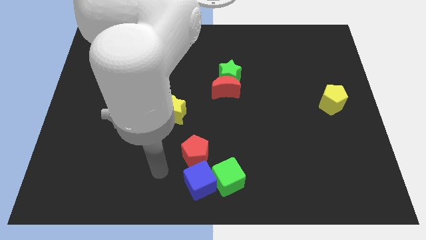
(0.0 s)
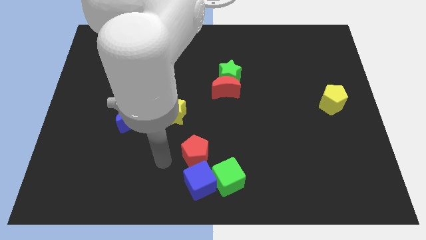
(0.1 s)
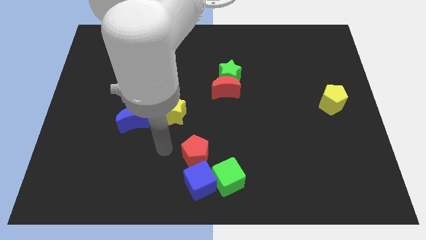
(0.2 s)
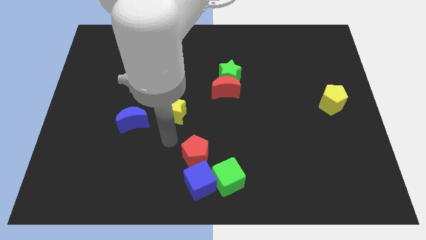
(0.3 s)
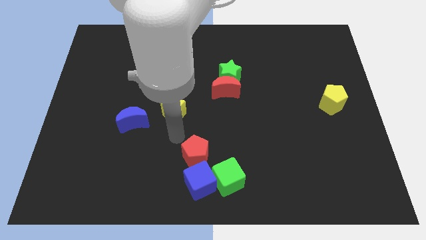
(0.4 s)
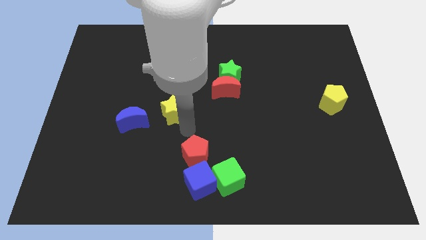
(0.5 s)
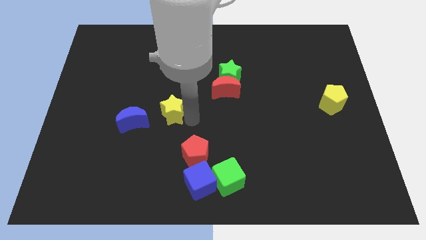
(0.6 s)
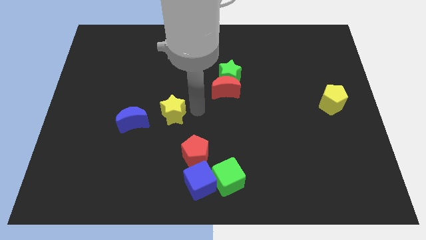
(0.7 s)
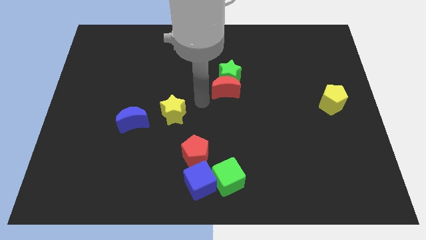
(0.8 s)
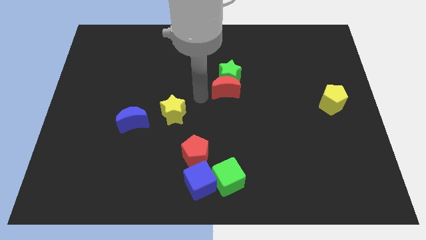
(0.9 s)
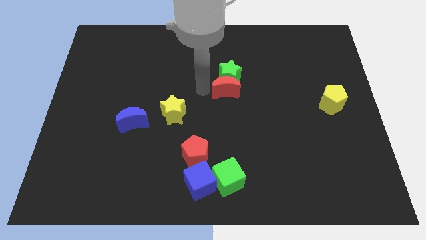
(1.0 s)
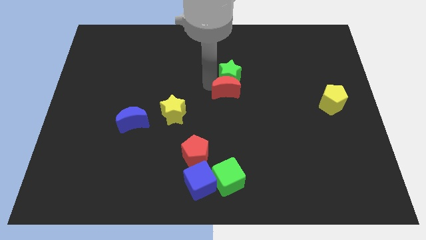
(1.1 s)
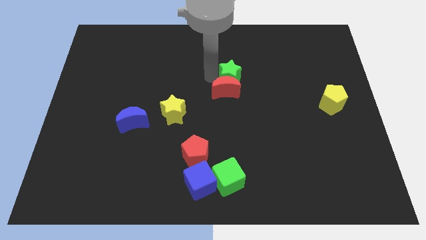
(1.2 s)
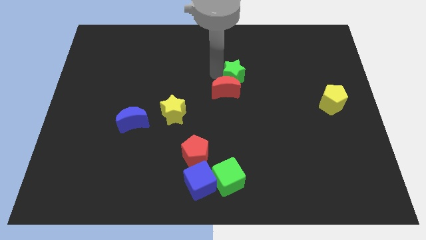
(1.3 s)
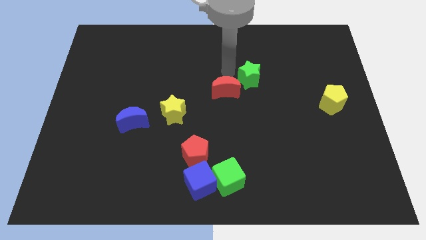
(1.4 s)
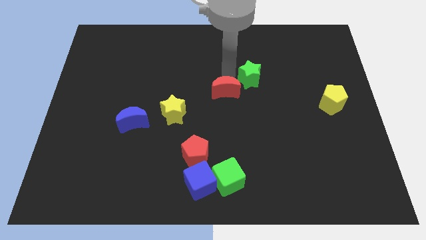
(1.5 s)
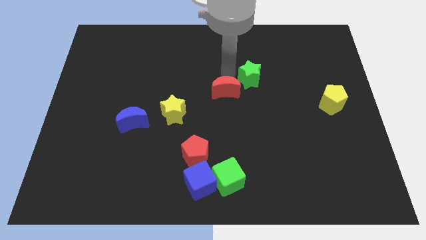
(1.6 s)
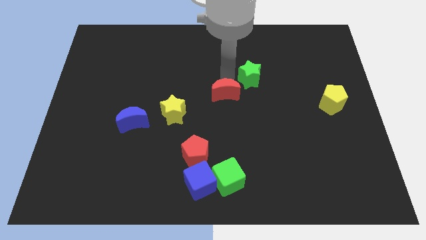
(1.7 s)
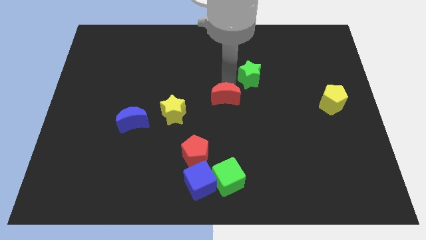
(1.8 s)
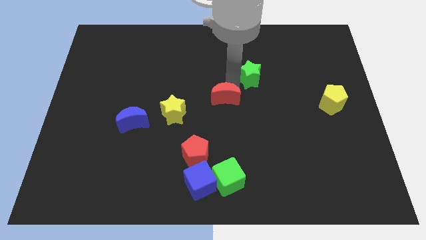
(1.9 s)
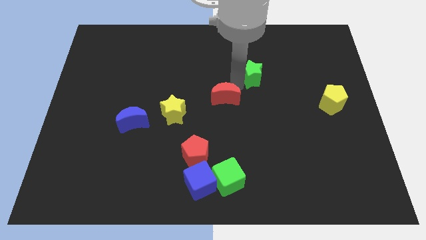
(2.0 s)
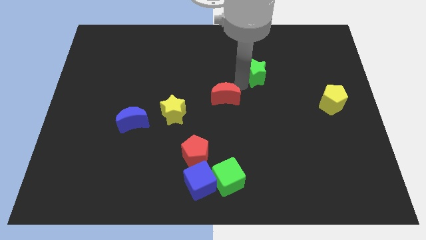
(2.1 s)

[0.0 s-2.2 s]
pull the red moon apart from the green star

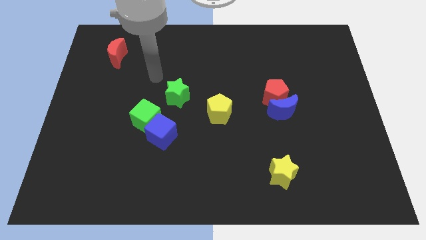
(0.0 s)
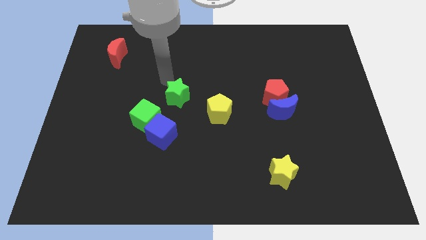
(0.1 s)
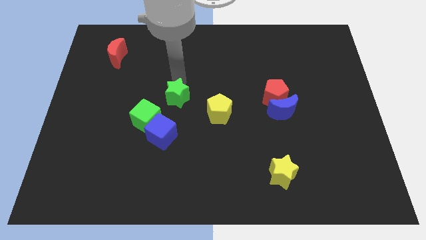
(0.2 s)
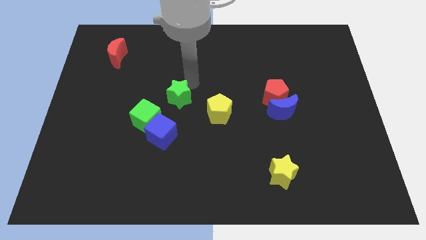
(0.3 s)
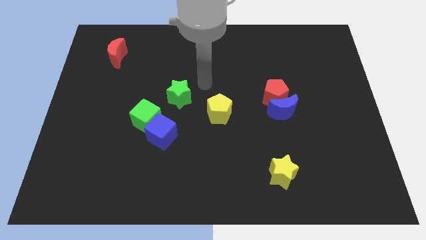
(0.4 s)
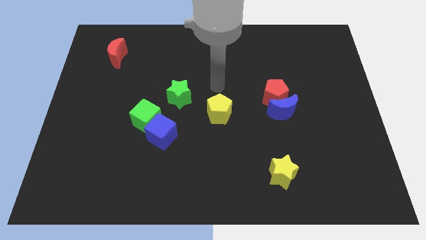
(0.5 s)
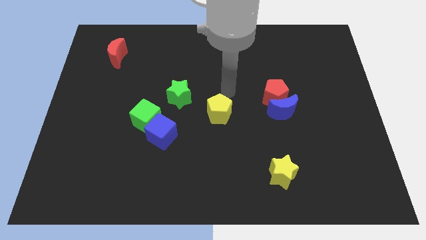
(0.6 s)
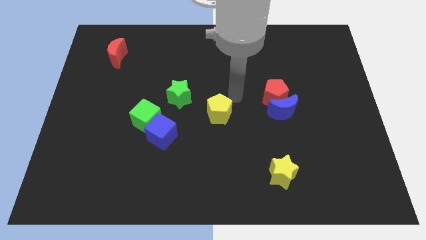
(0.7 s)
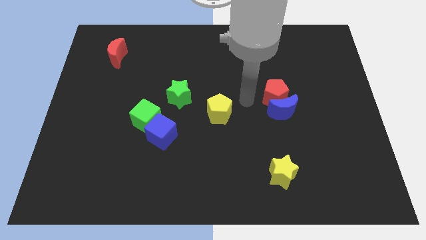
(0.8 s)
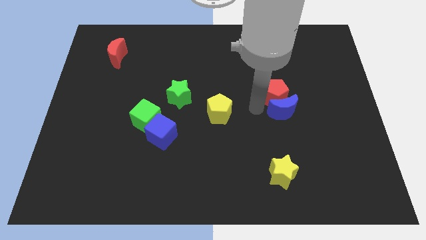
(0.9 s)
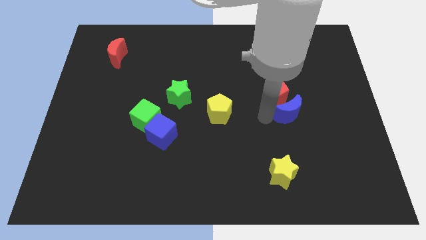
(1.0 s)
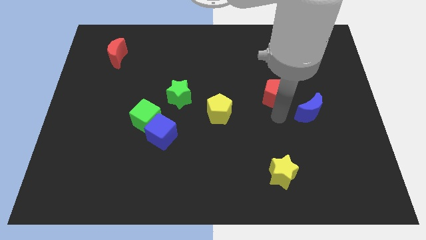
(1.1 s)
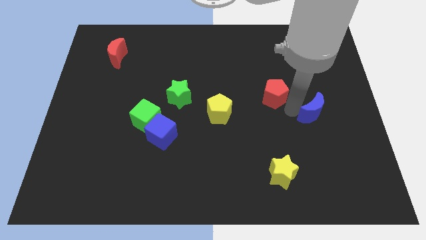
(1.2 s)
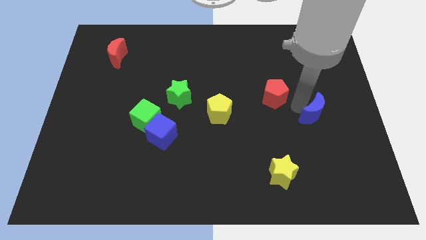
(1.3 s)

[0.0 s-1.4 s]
pull the red pentagon apart from the blue moon

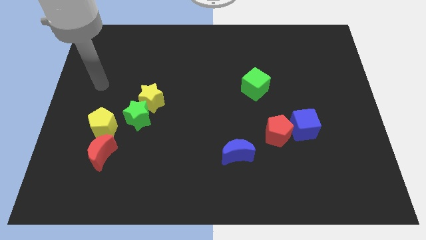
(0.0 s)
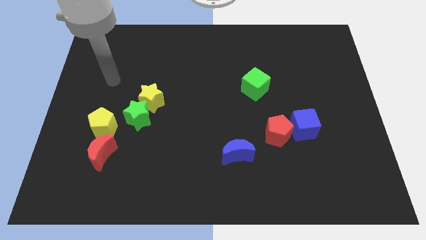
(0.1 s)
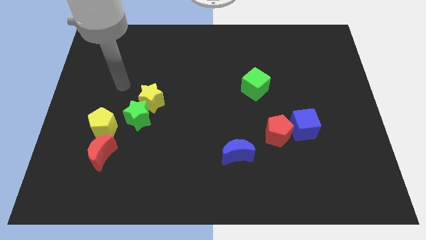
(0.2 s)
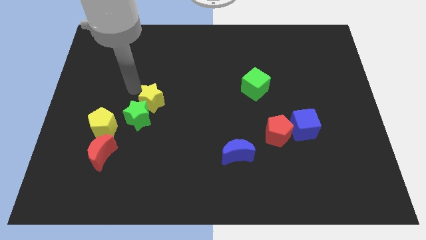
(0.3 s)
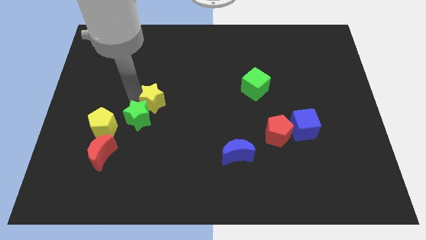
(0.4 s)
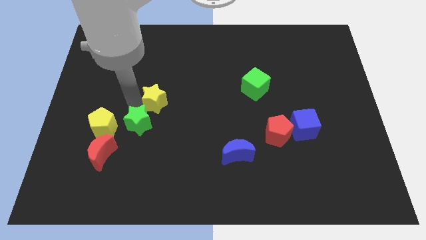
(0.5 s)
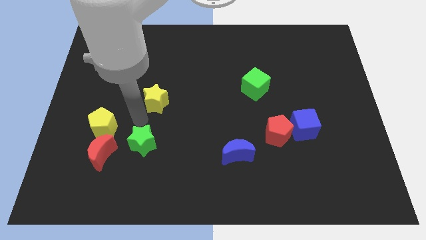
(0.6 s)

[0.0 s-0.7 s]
pull the yellow star apart from the green star

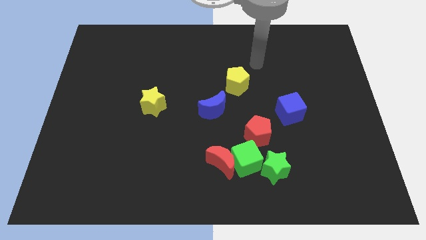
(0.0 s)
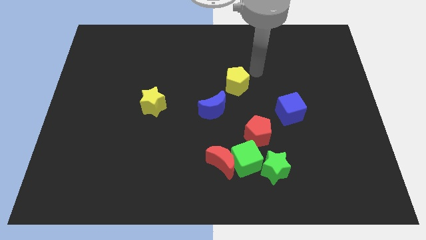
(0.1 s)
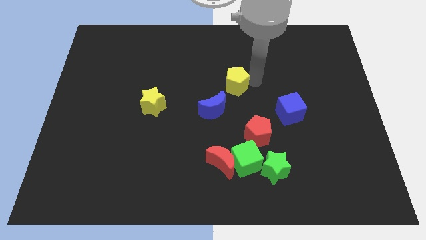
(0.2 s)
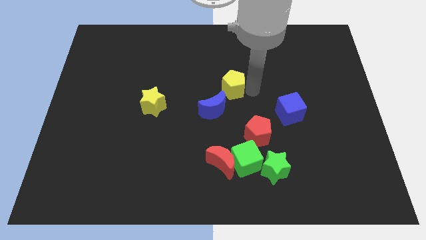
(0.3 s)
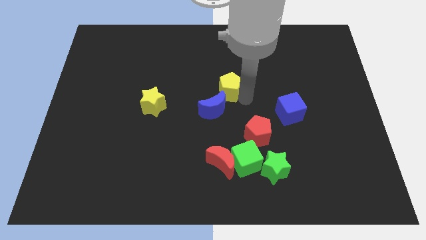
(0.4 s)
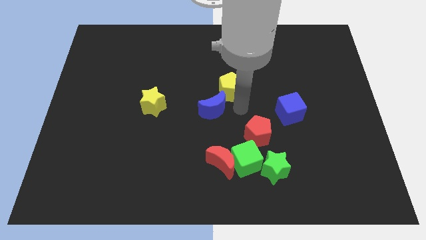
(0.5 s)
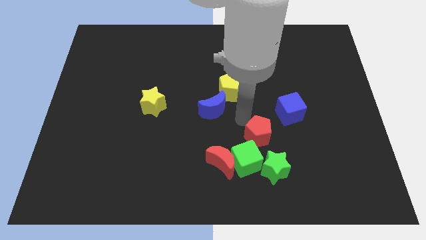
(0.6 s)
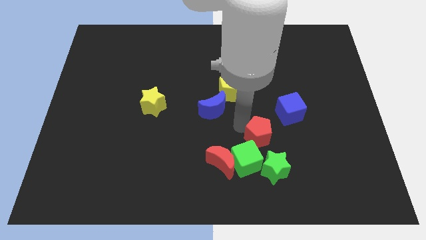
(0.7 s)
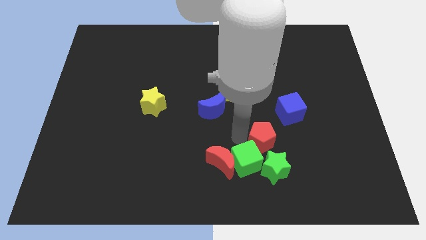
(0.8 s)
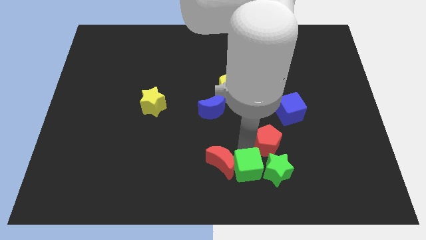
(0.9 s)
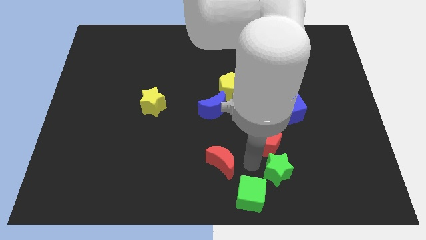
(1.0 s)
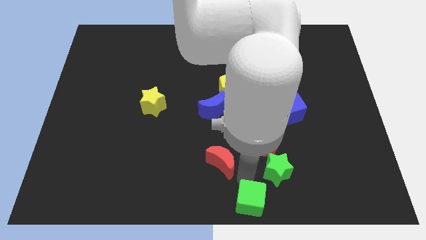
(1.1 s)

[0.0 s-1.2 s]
separate the red moon from the green cube

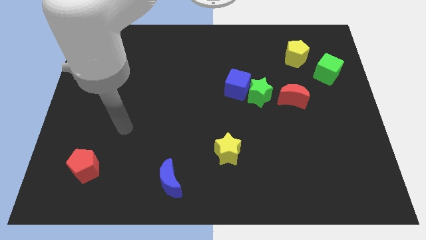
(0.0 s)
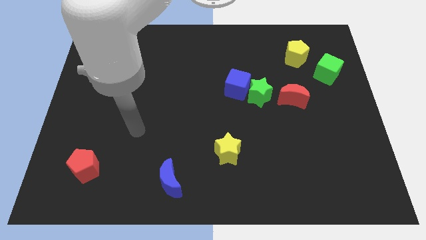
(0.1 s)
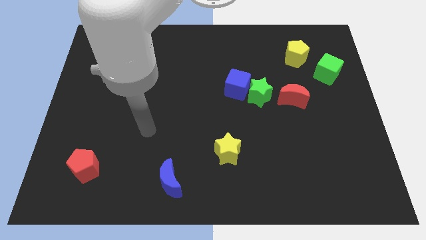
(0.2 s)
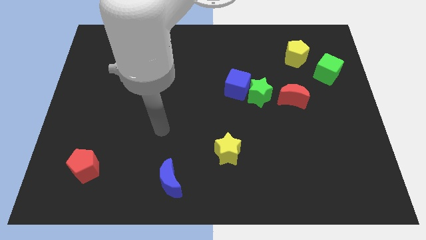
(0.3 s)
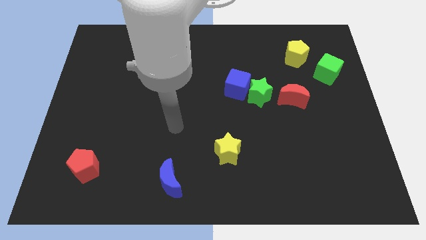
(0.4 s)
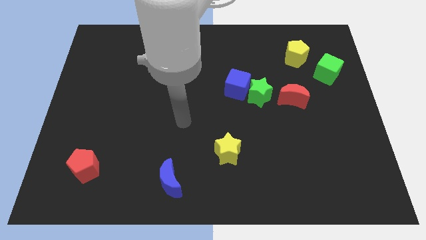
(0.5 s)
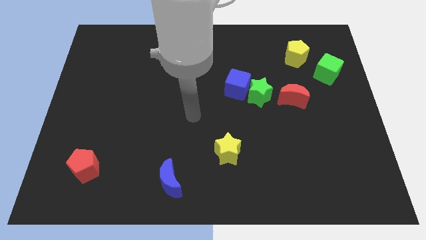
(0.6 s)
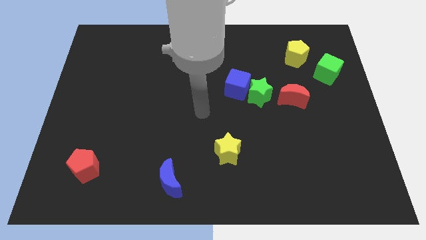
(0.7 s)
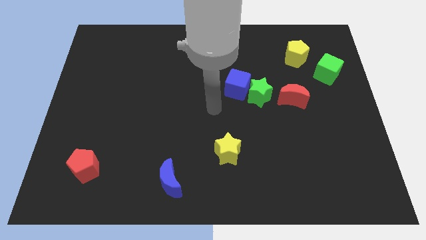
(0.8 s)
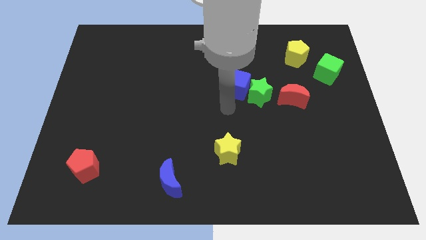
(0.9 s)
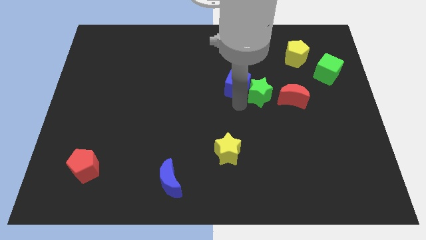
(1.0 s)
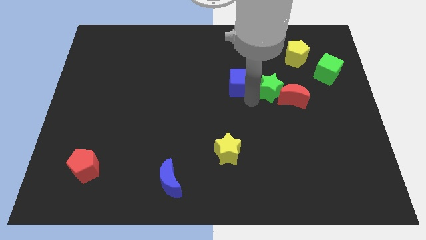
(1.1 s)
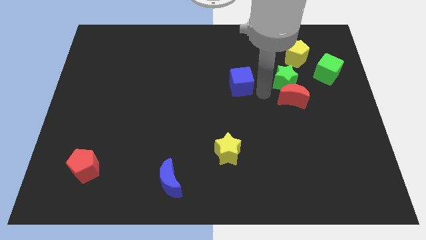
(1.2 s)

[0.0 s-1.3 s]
separate the blue cube from the green star

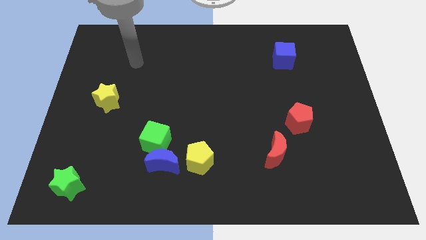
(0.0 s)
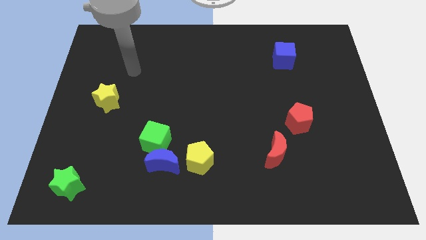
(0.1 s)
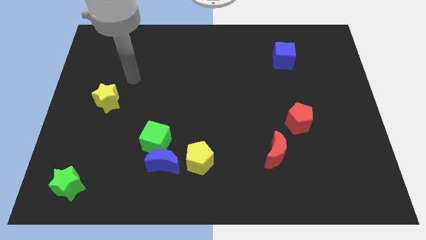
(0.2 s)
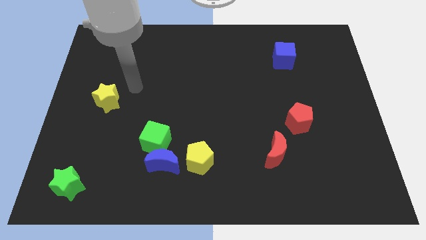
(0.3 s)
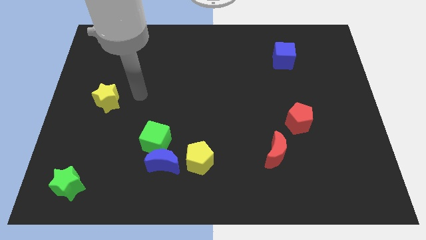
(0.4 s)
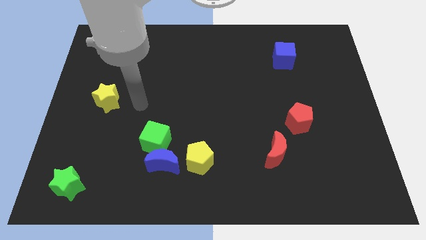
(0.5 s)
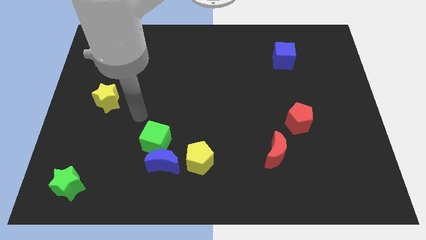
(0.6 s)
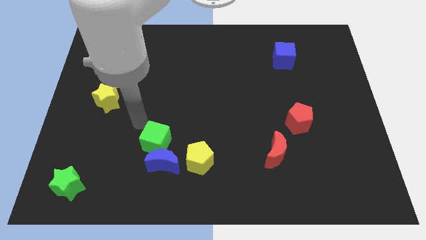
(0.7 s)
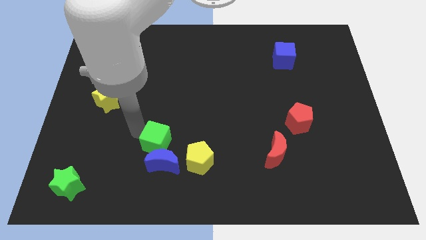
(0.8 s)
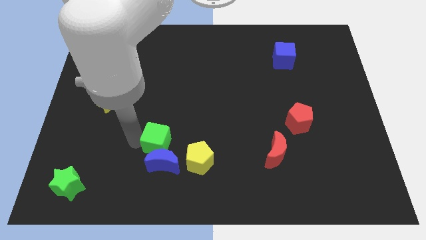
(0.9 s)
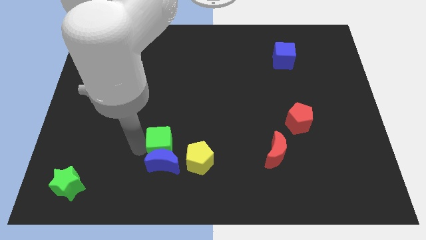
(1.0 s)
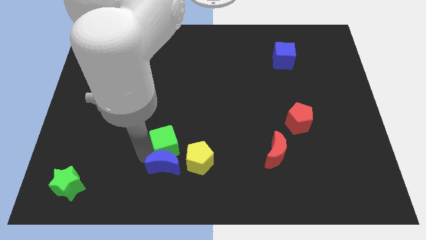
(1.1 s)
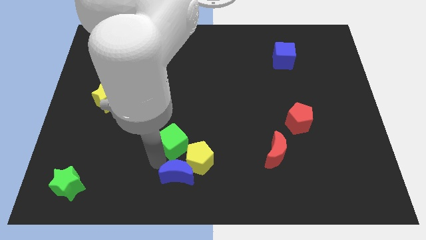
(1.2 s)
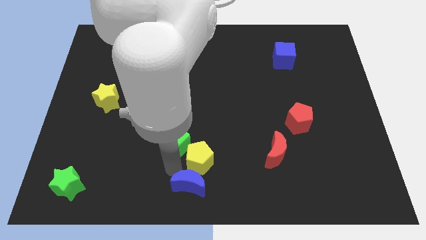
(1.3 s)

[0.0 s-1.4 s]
pull the green cube apart from the blue moon

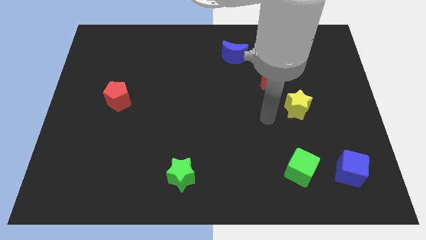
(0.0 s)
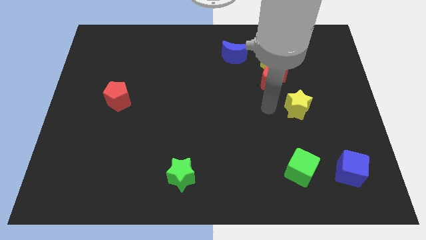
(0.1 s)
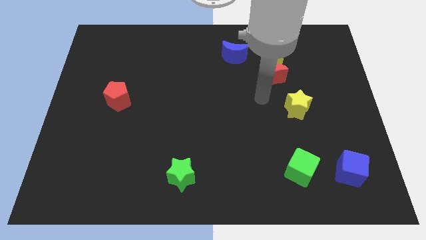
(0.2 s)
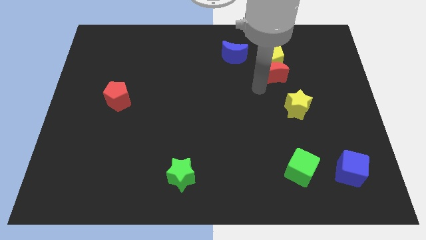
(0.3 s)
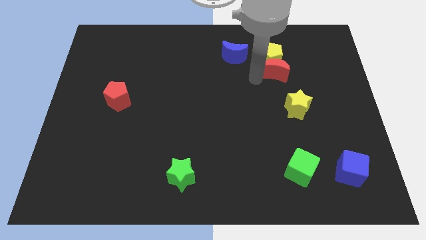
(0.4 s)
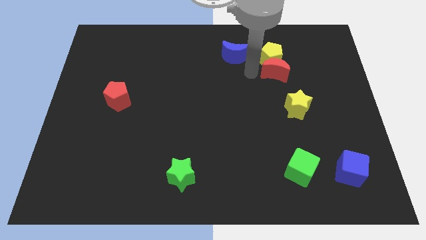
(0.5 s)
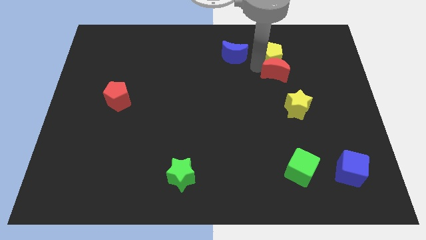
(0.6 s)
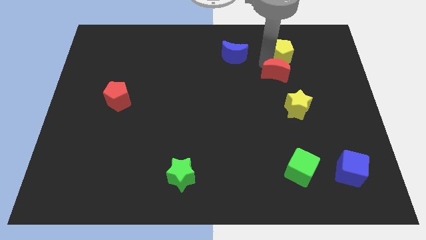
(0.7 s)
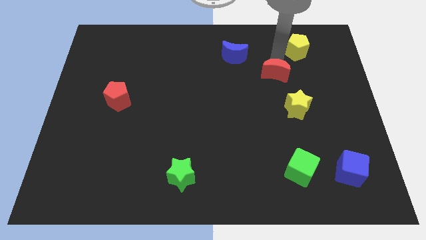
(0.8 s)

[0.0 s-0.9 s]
move the red moon away from the yellow pentagon
